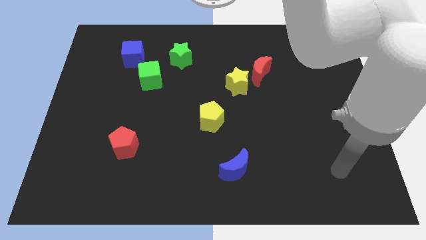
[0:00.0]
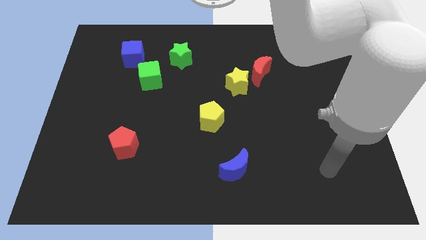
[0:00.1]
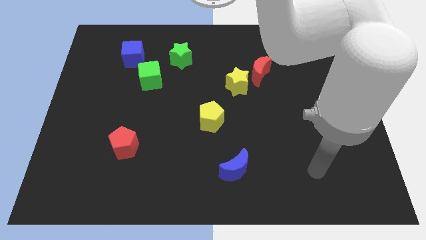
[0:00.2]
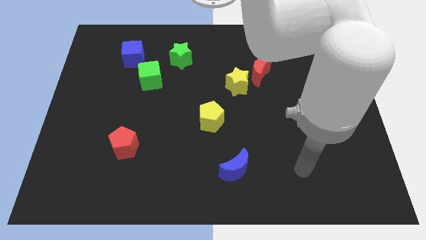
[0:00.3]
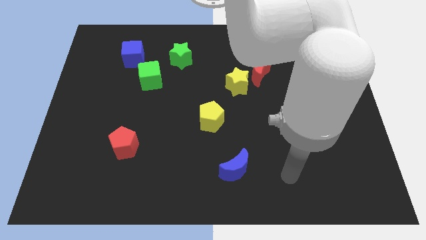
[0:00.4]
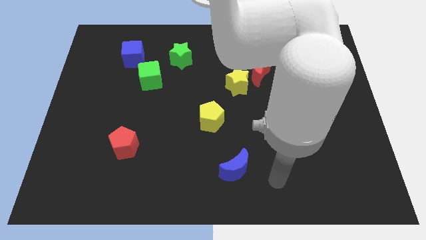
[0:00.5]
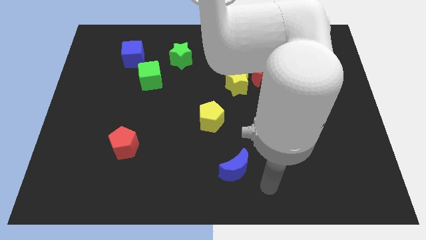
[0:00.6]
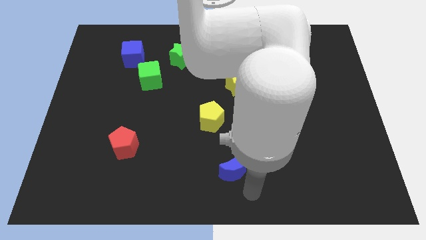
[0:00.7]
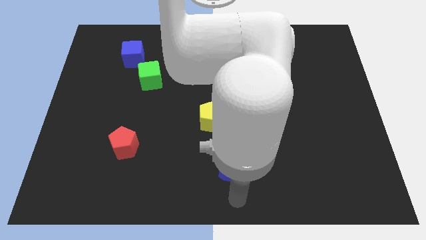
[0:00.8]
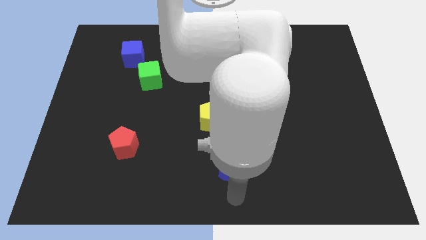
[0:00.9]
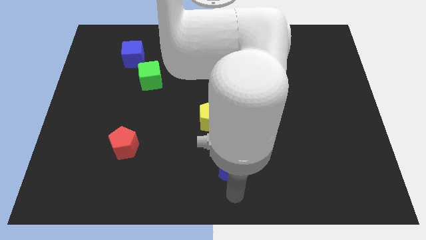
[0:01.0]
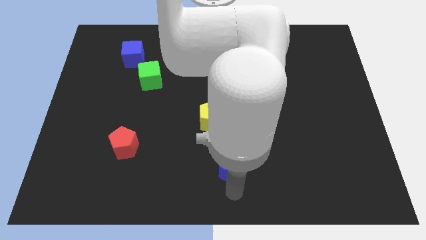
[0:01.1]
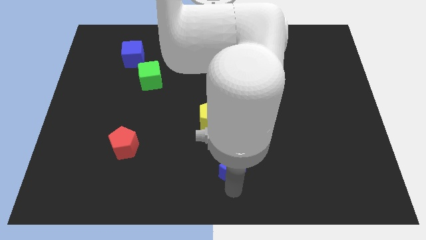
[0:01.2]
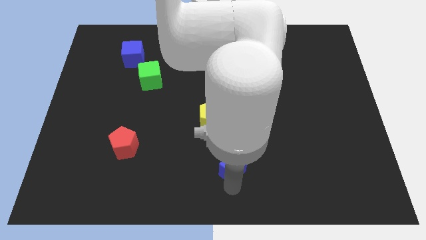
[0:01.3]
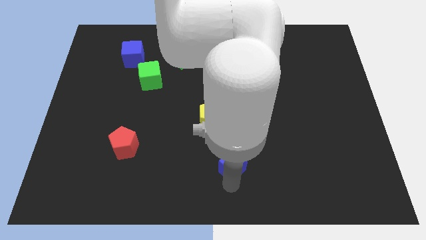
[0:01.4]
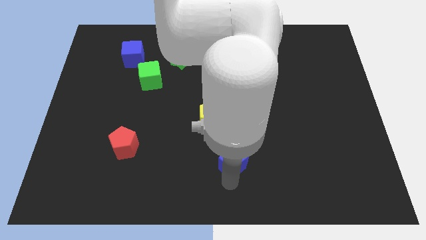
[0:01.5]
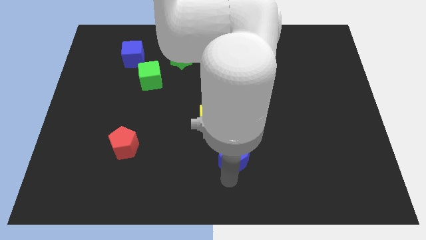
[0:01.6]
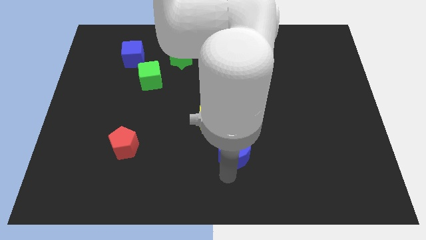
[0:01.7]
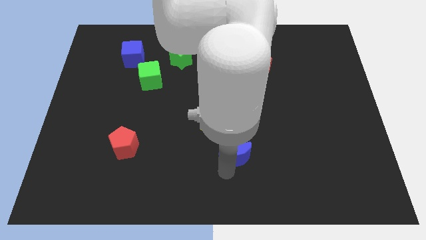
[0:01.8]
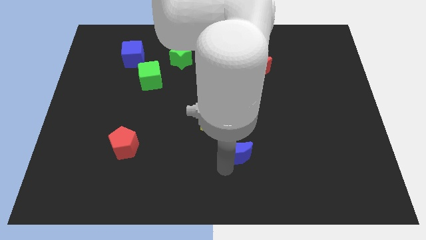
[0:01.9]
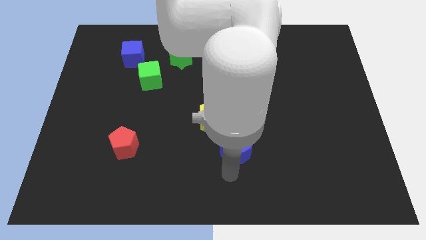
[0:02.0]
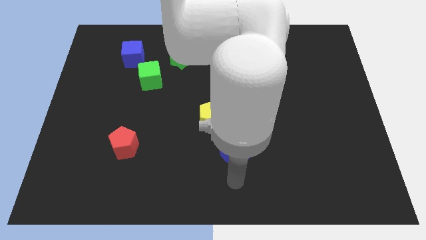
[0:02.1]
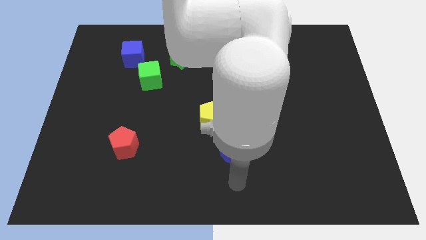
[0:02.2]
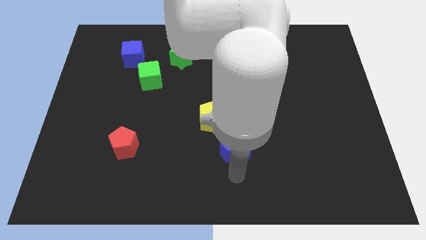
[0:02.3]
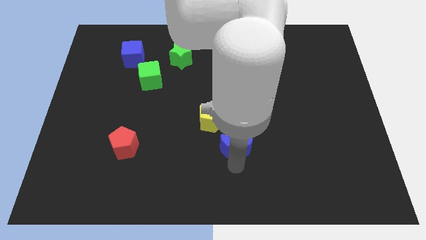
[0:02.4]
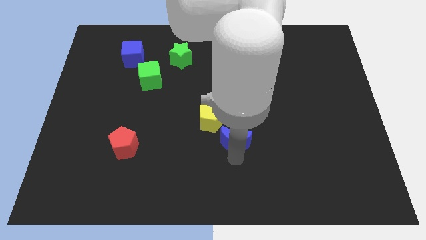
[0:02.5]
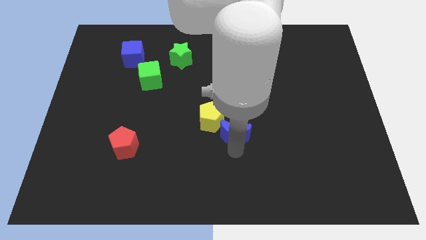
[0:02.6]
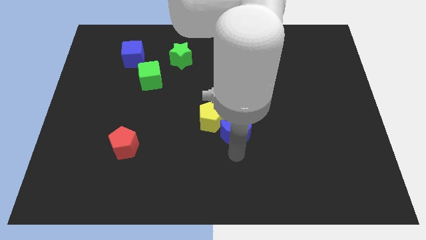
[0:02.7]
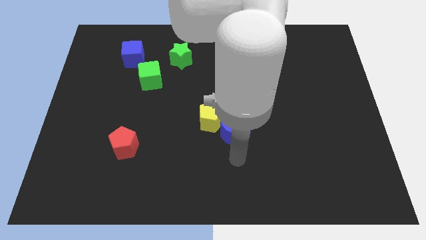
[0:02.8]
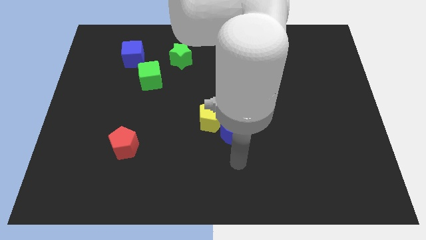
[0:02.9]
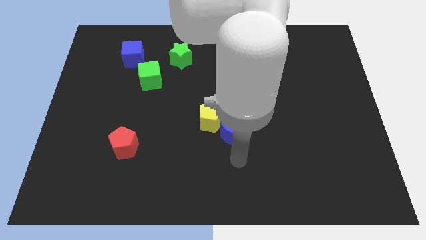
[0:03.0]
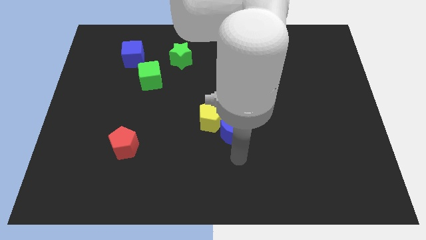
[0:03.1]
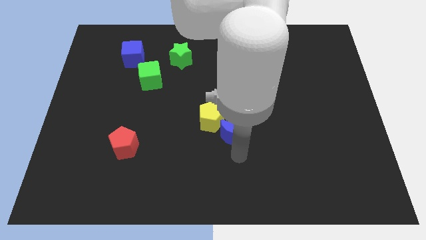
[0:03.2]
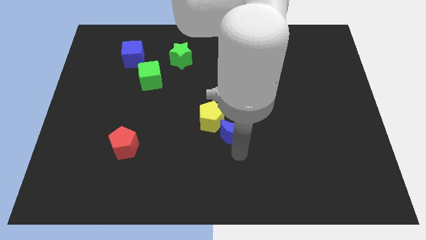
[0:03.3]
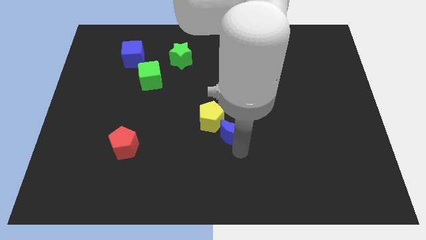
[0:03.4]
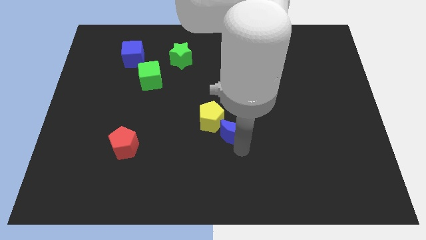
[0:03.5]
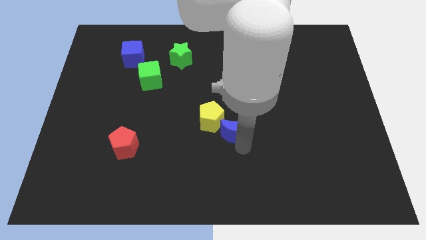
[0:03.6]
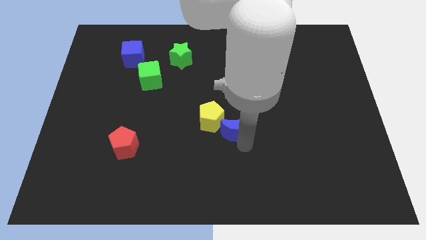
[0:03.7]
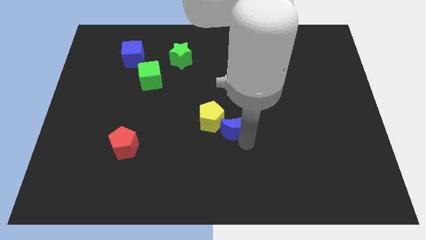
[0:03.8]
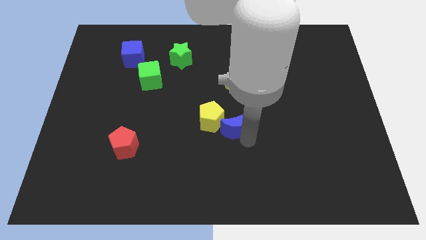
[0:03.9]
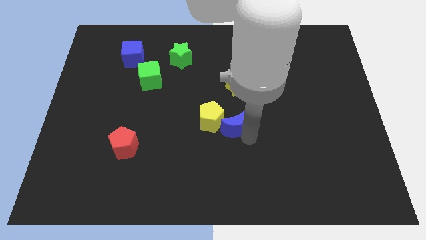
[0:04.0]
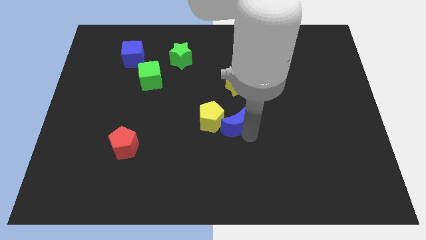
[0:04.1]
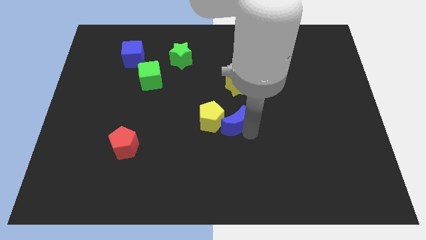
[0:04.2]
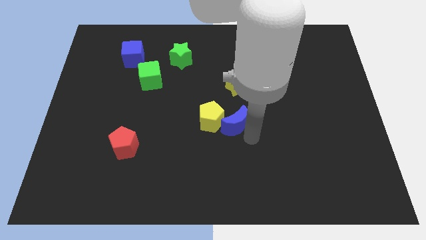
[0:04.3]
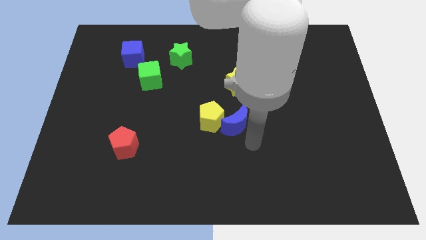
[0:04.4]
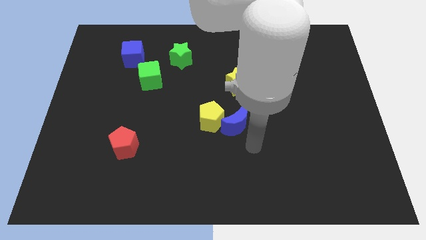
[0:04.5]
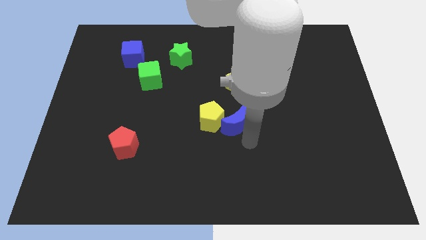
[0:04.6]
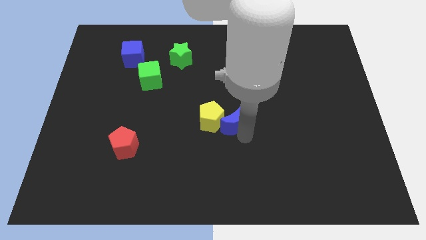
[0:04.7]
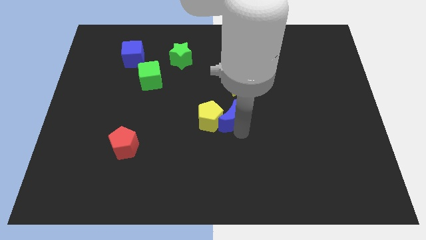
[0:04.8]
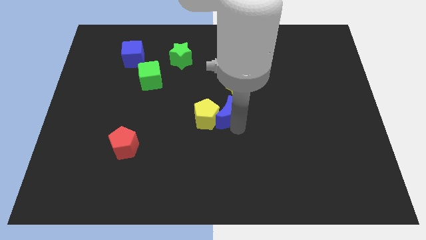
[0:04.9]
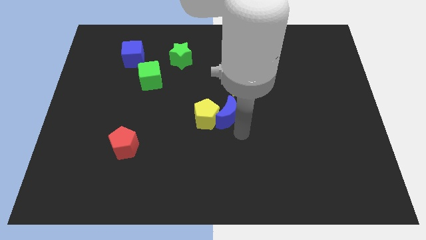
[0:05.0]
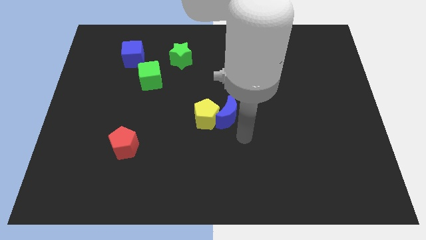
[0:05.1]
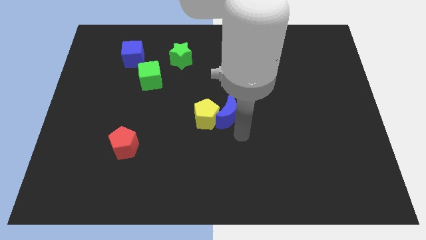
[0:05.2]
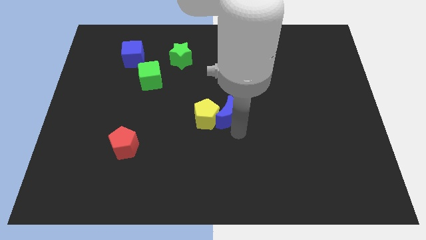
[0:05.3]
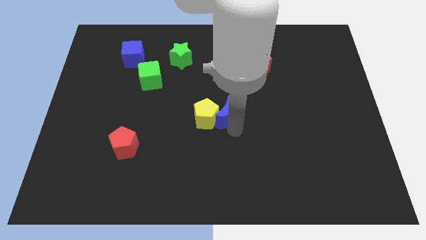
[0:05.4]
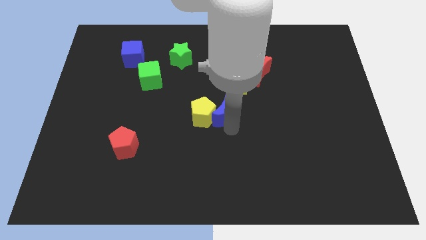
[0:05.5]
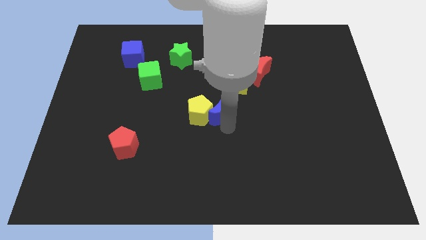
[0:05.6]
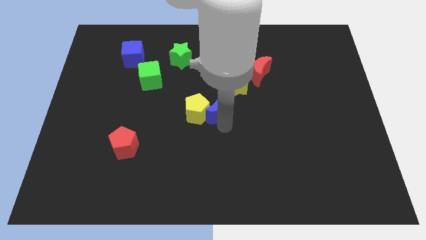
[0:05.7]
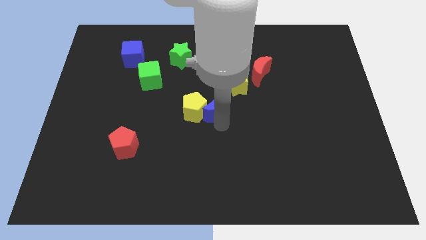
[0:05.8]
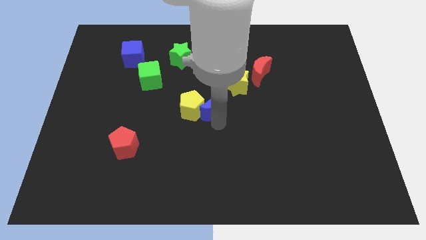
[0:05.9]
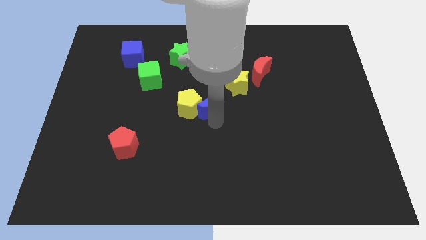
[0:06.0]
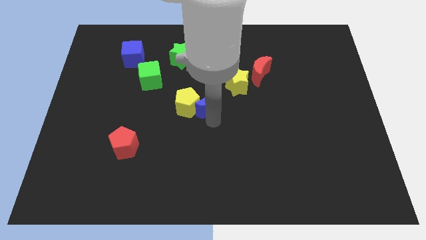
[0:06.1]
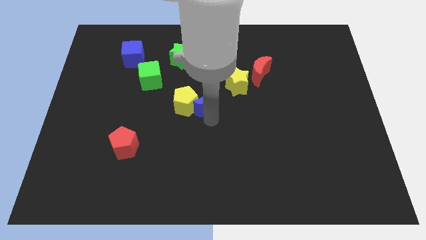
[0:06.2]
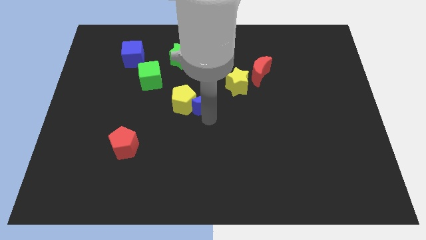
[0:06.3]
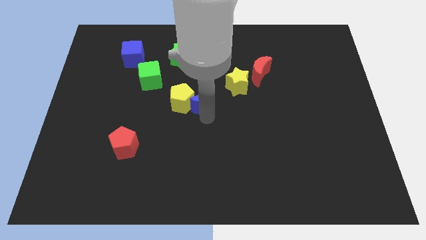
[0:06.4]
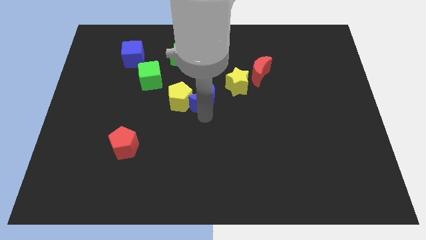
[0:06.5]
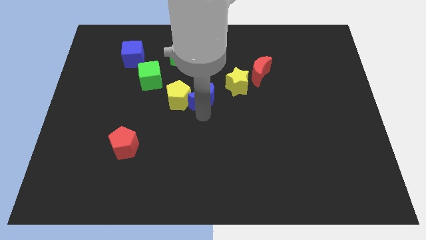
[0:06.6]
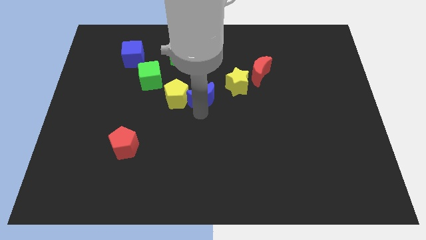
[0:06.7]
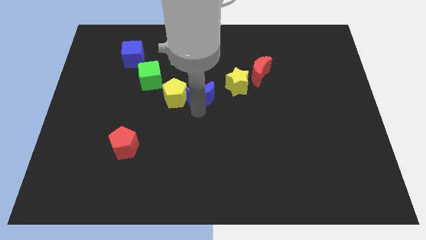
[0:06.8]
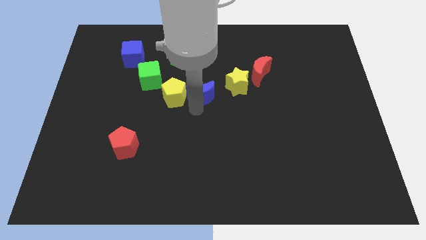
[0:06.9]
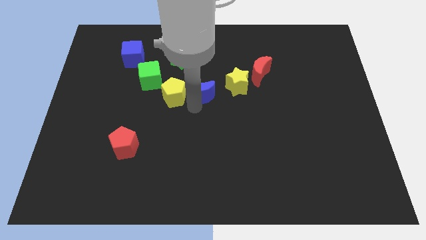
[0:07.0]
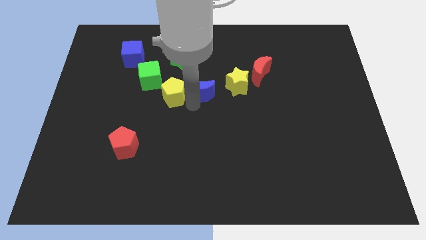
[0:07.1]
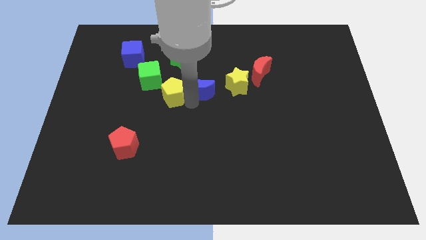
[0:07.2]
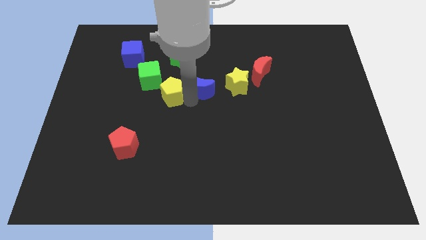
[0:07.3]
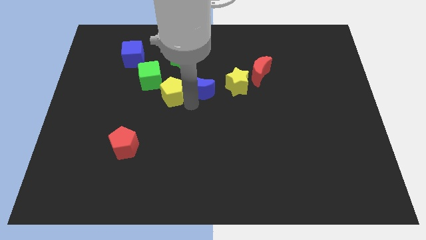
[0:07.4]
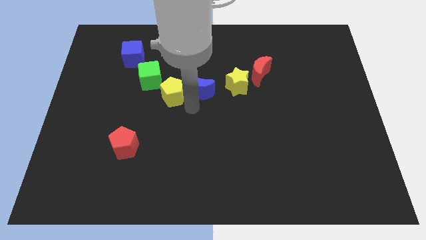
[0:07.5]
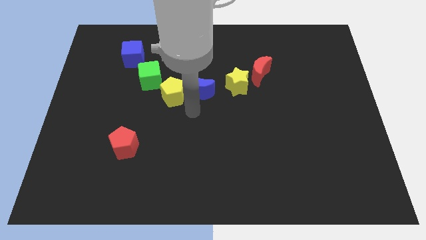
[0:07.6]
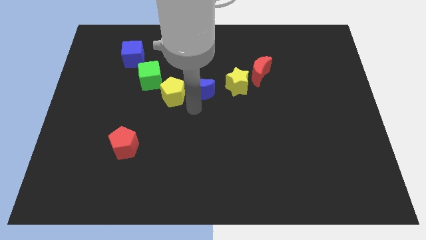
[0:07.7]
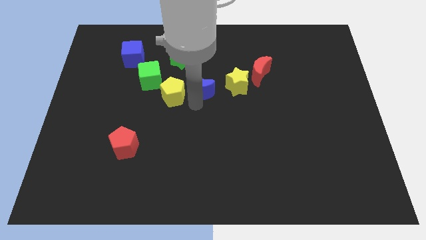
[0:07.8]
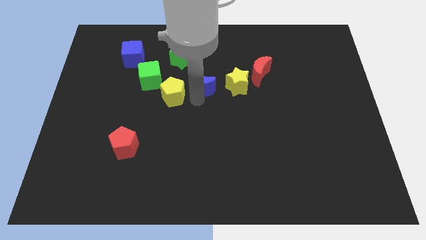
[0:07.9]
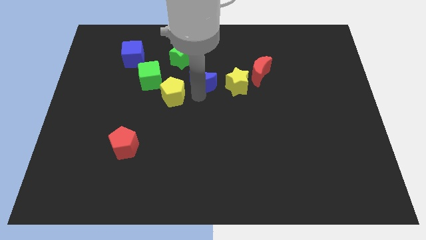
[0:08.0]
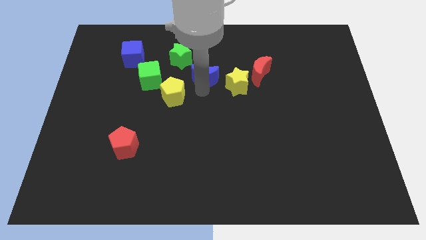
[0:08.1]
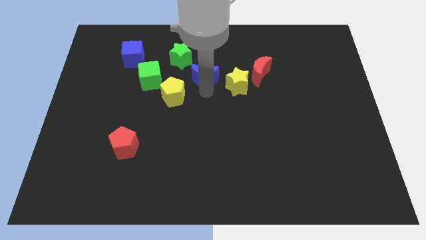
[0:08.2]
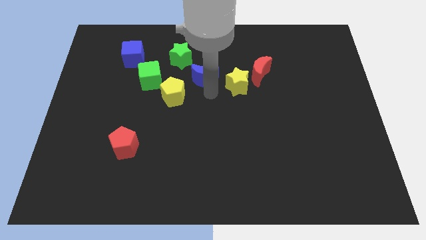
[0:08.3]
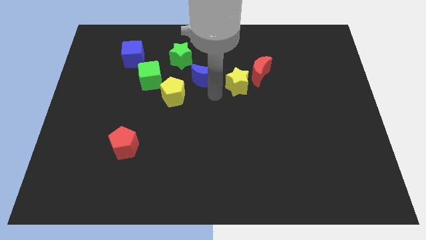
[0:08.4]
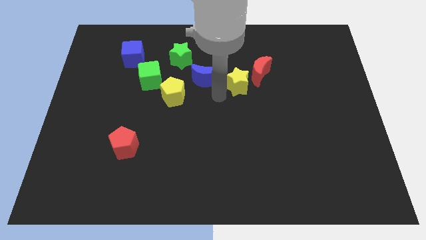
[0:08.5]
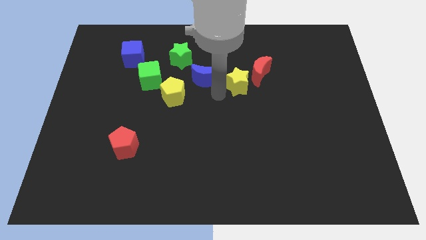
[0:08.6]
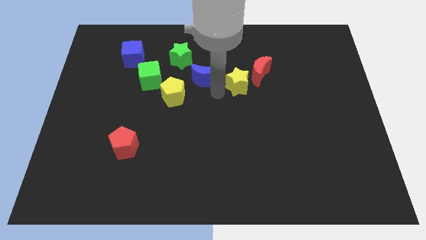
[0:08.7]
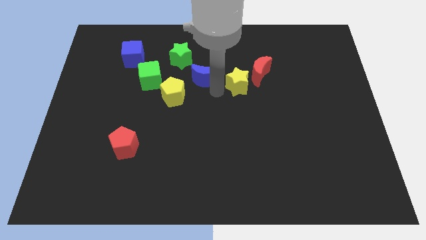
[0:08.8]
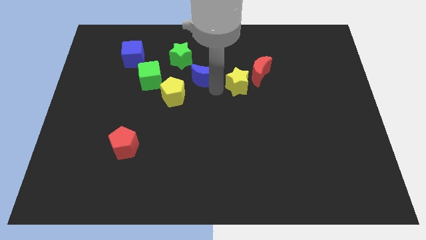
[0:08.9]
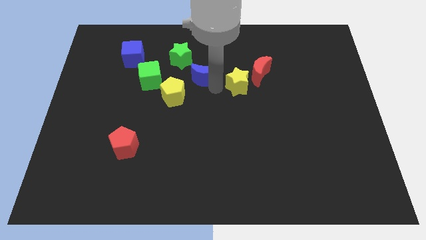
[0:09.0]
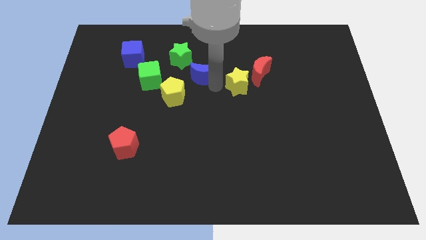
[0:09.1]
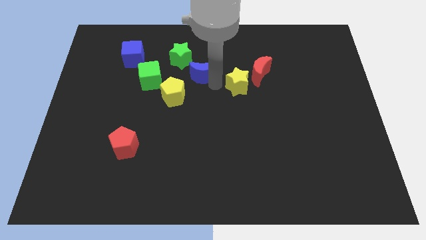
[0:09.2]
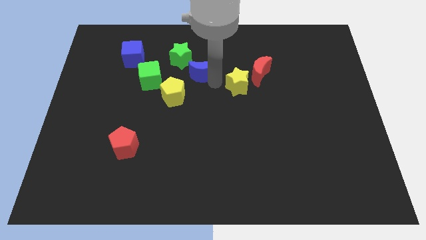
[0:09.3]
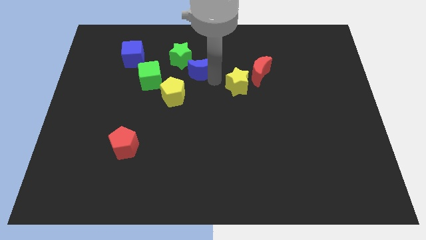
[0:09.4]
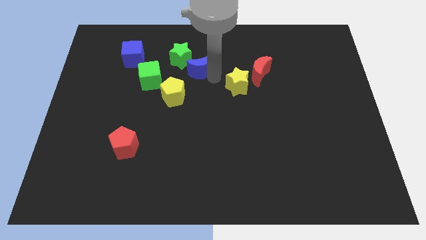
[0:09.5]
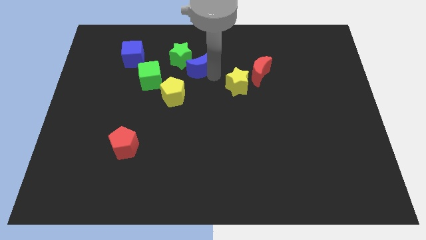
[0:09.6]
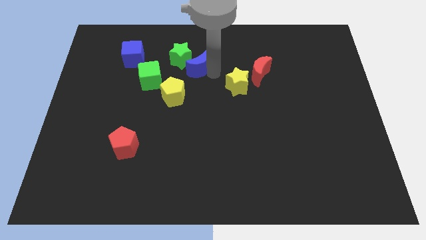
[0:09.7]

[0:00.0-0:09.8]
slide the blue moon towards the green star
